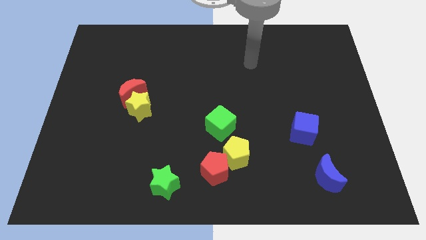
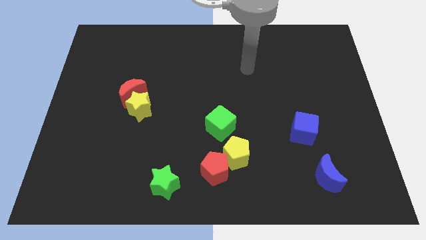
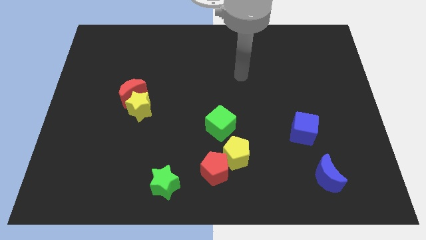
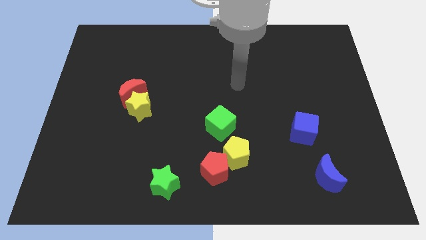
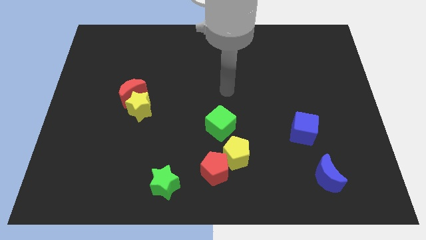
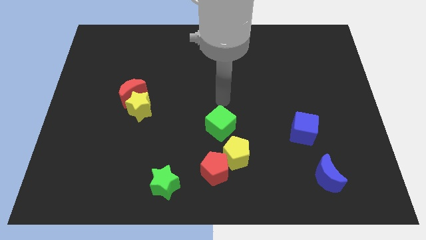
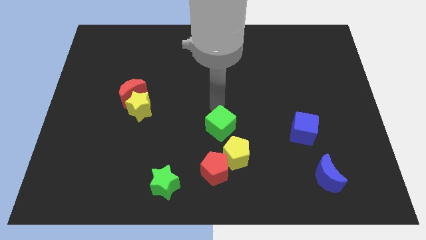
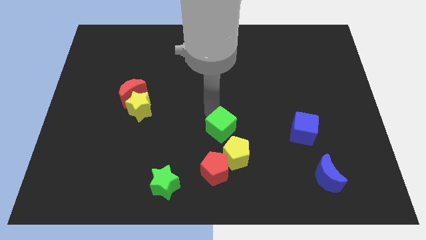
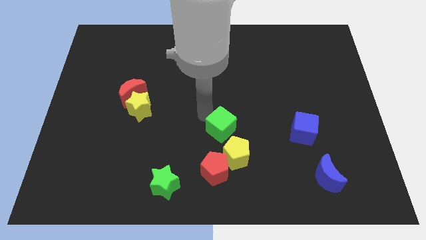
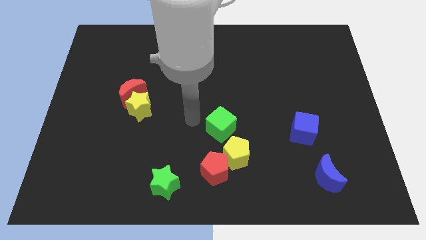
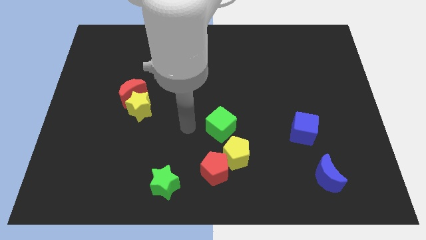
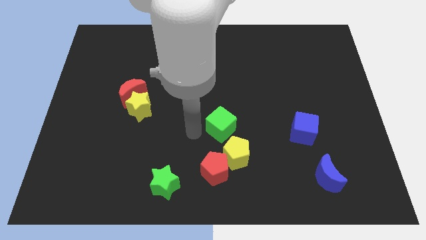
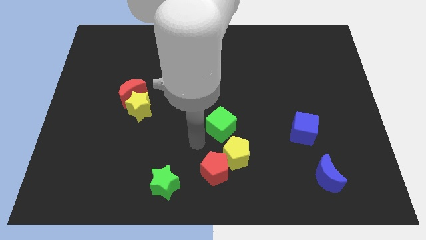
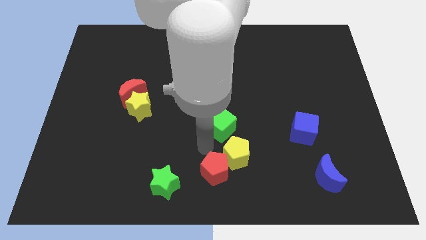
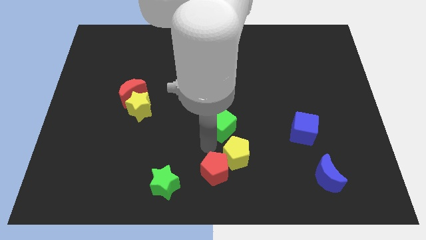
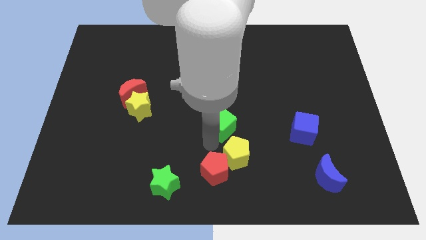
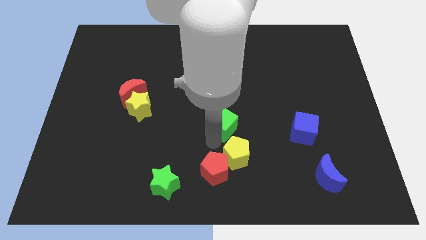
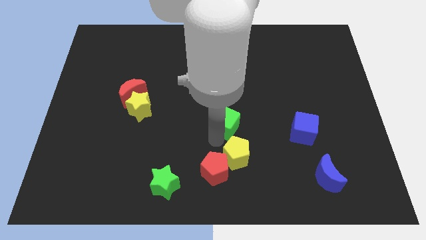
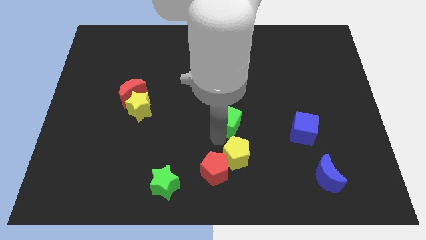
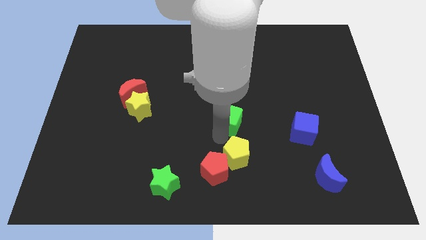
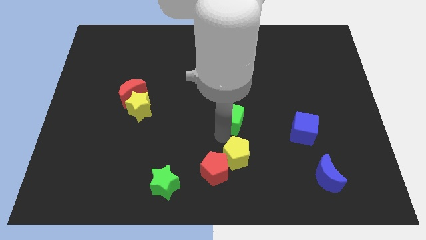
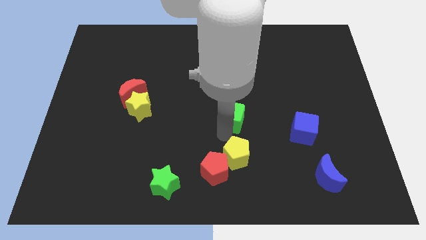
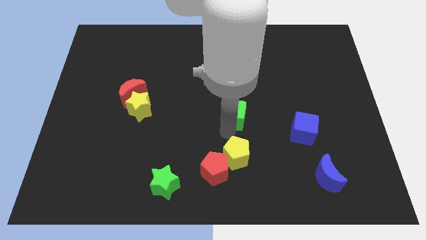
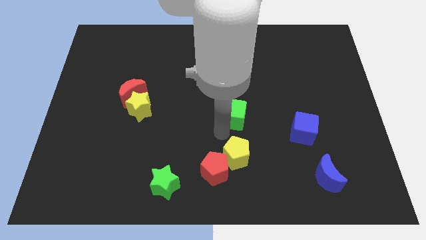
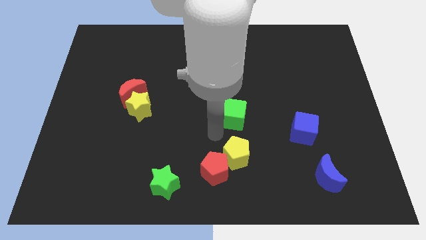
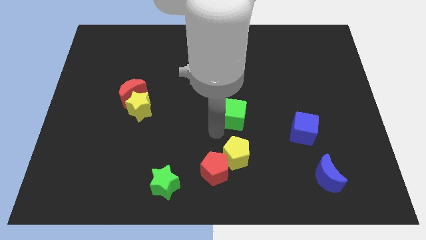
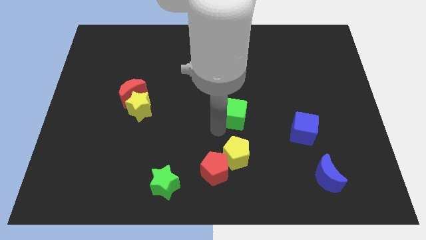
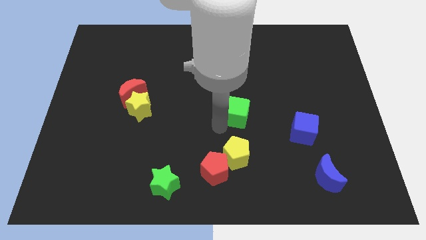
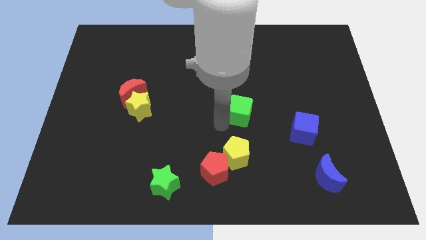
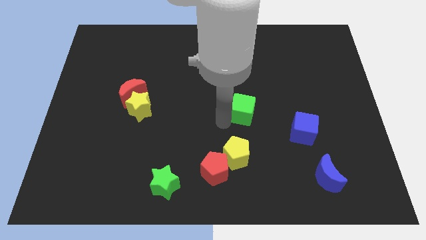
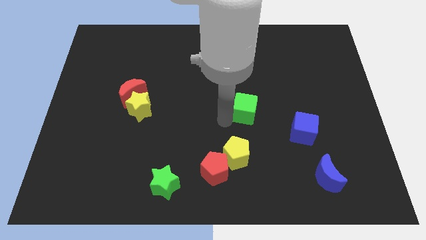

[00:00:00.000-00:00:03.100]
slightly push the green cube up and to the right

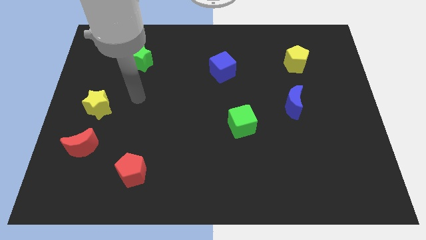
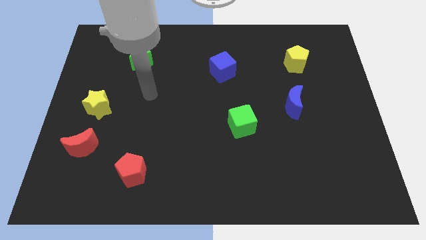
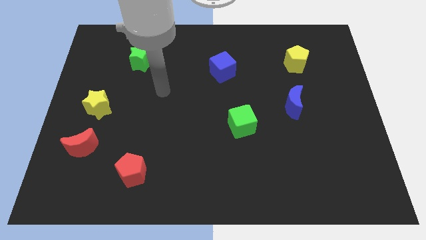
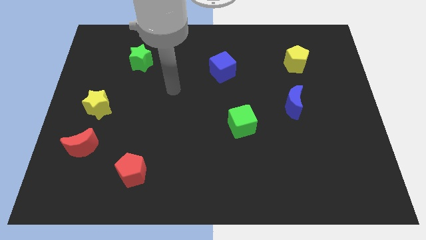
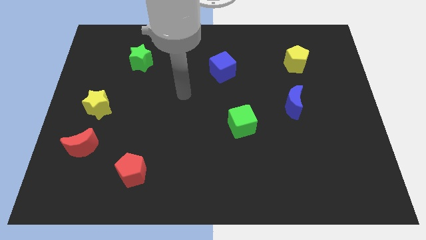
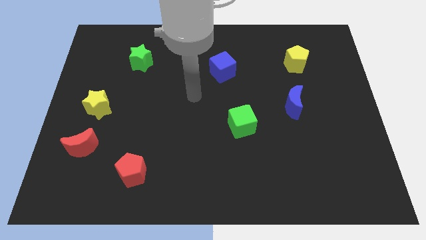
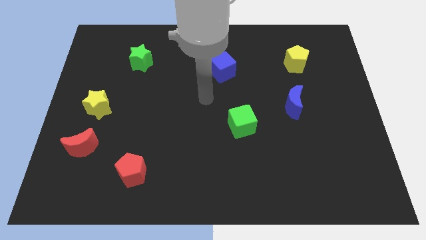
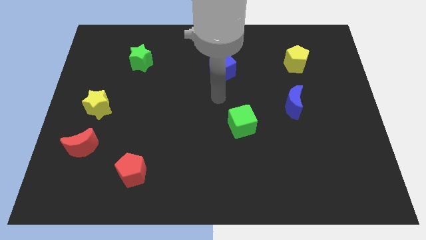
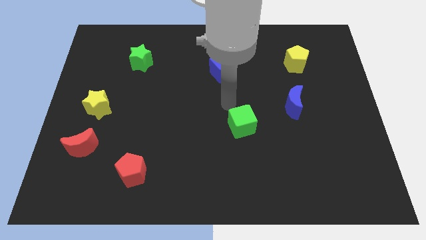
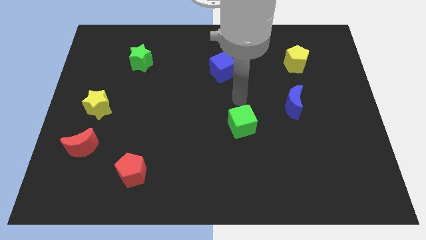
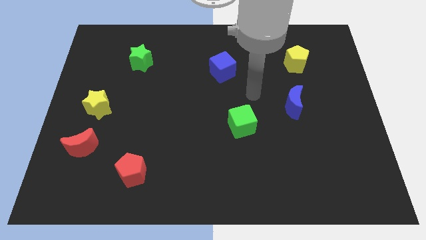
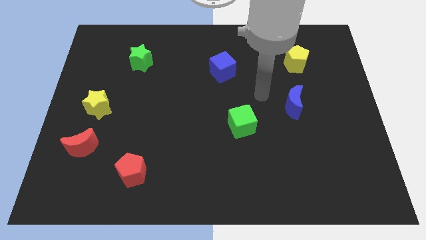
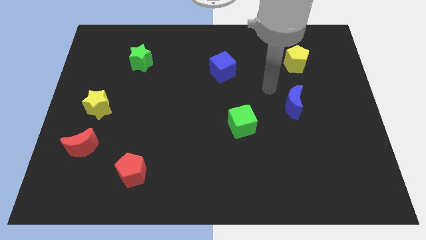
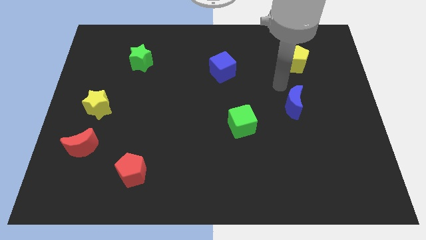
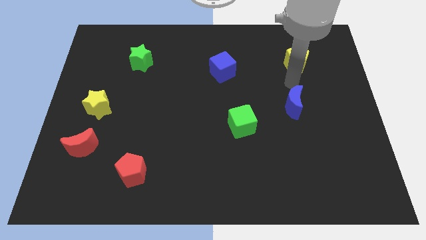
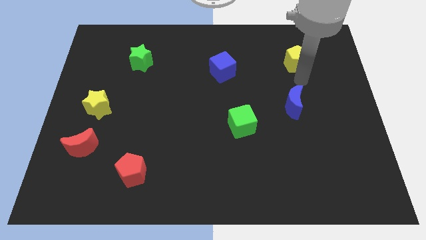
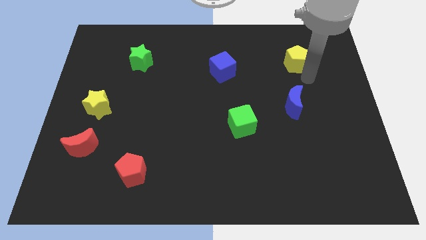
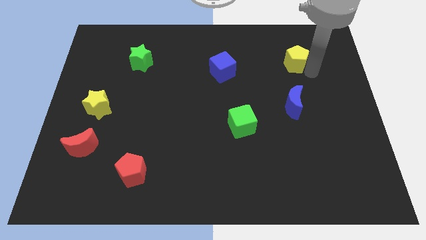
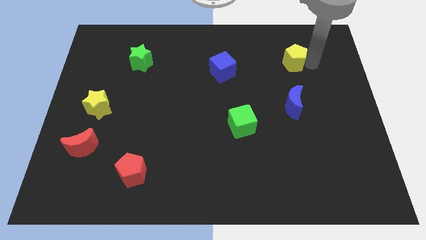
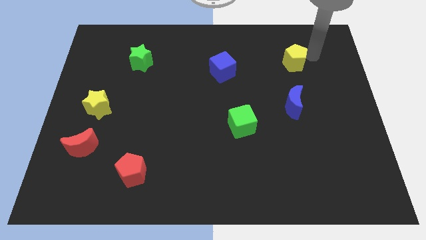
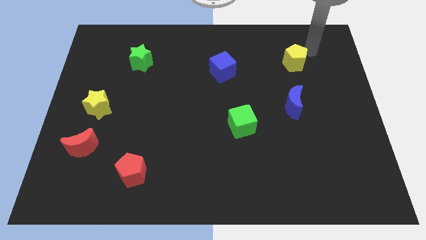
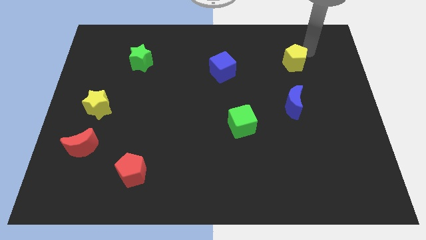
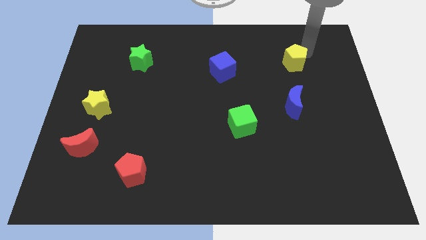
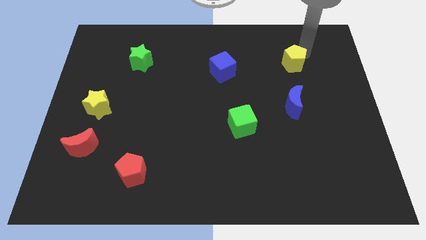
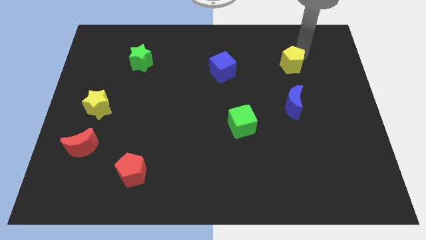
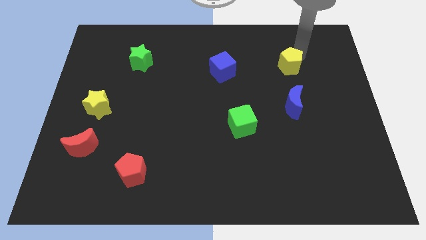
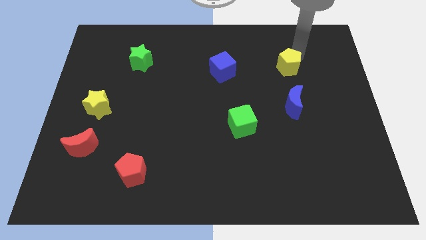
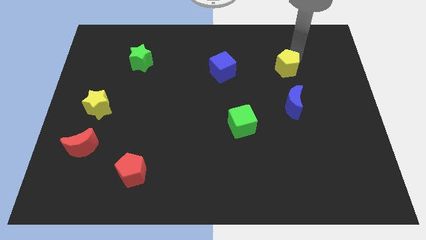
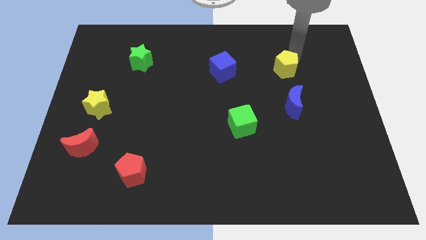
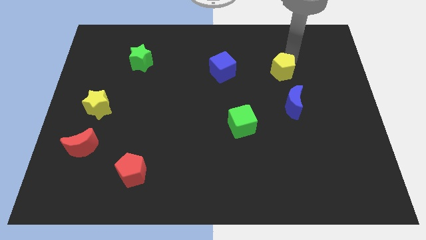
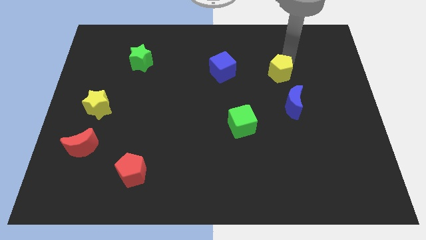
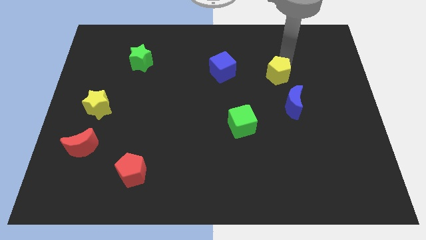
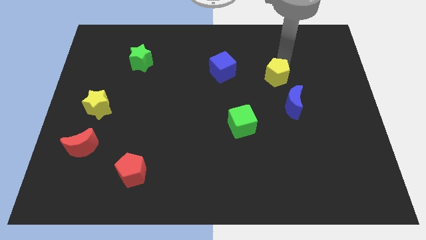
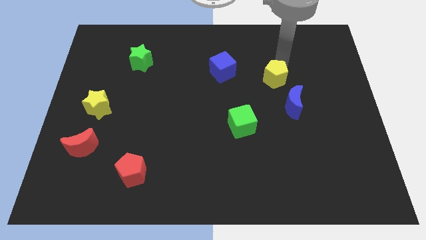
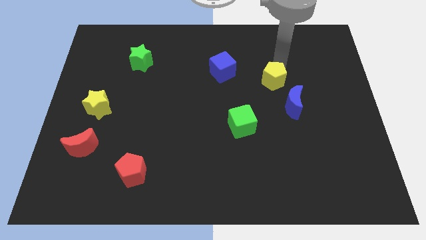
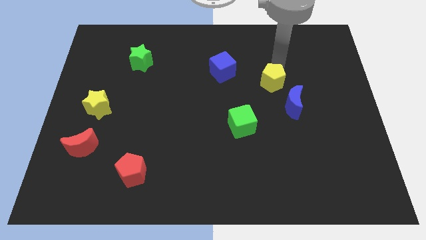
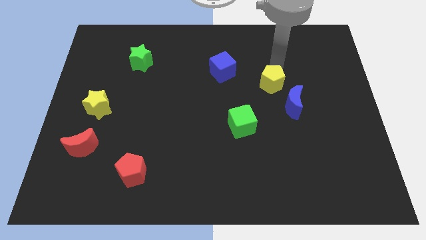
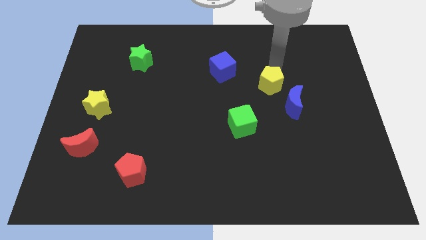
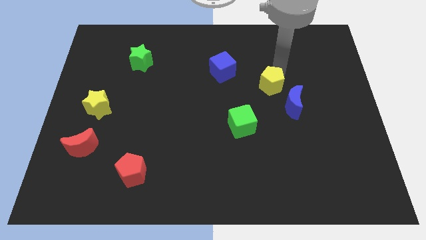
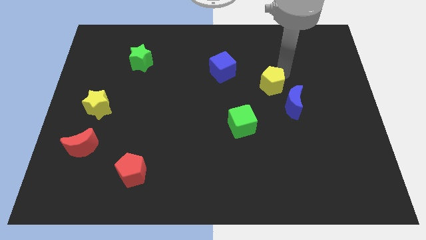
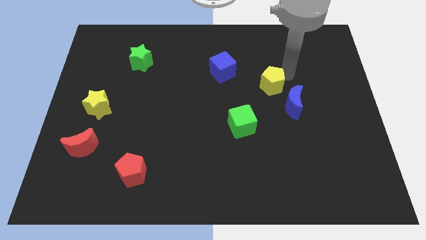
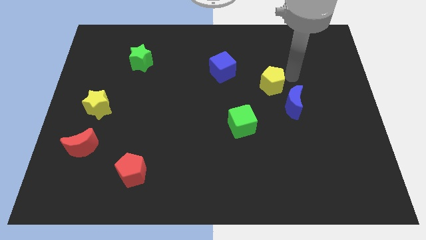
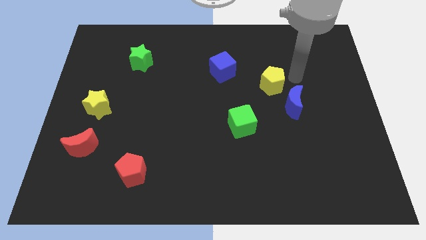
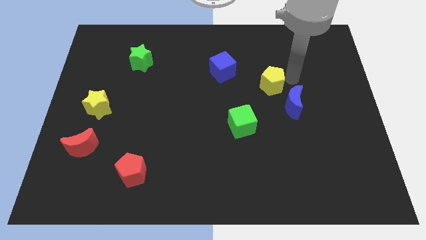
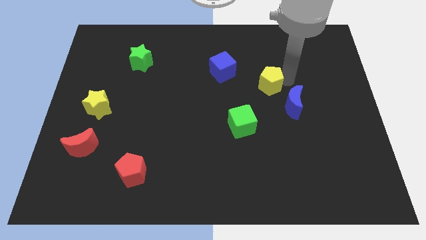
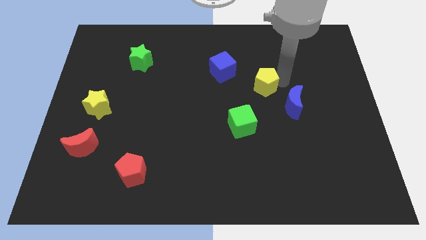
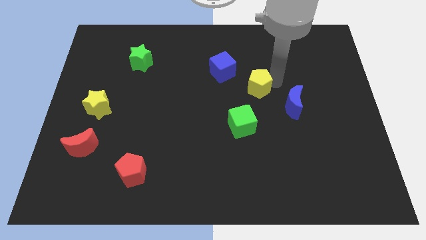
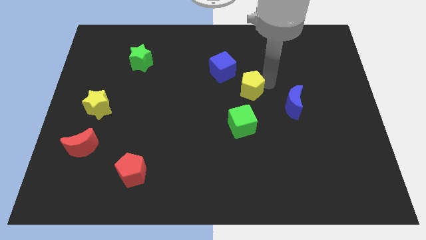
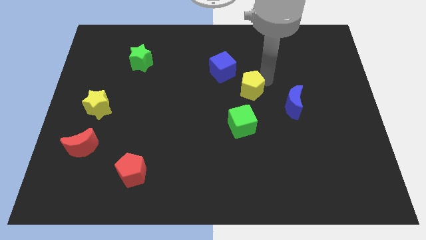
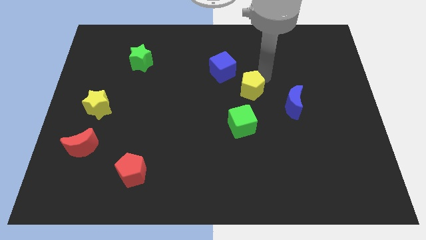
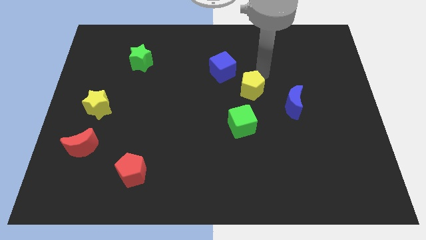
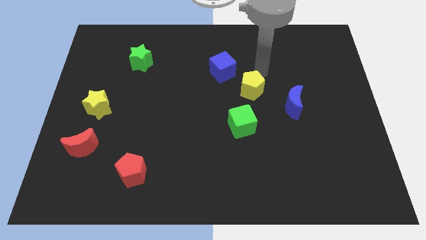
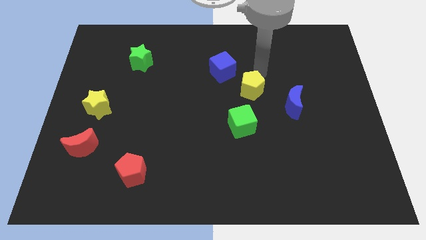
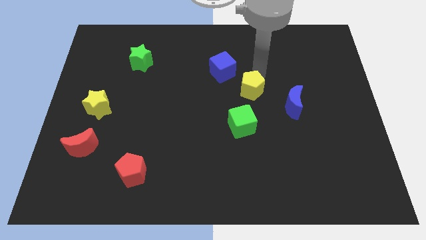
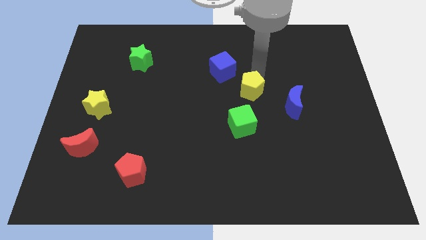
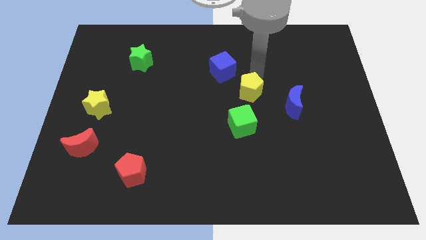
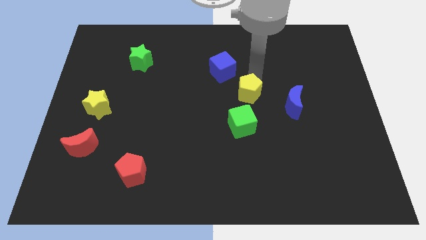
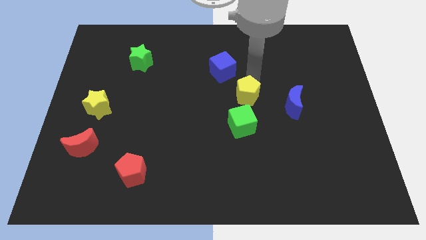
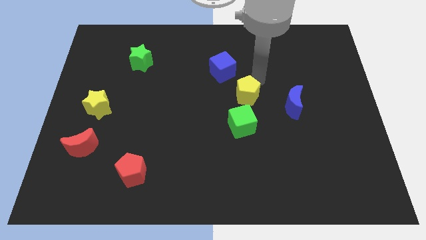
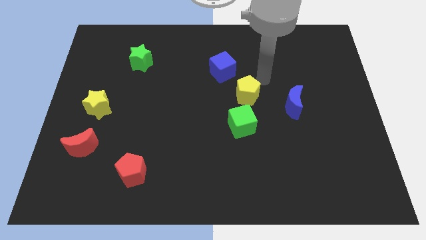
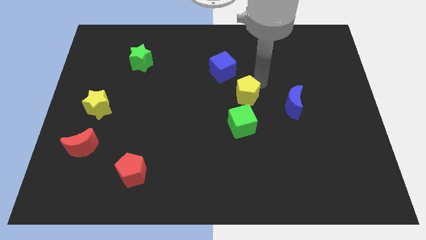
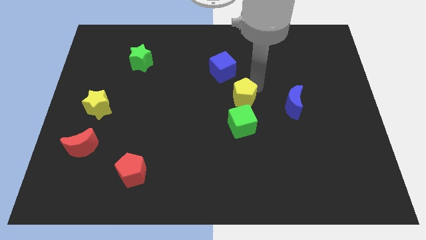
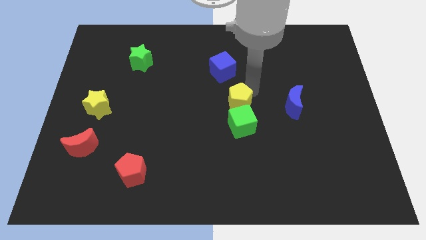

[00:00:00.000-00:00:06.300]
push the yellow pentagon down and left
